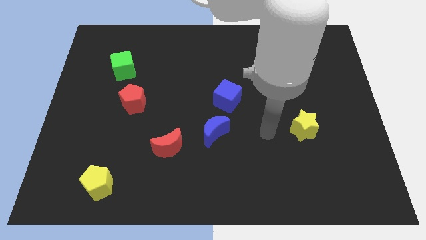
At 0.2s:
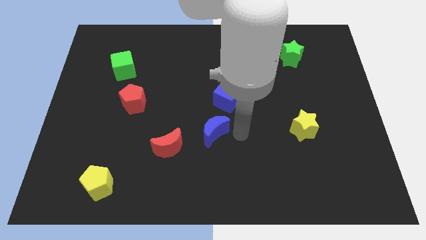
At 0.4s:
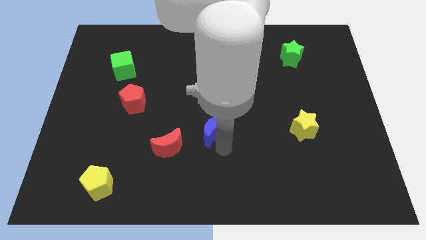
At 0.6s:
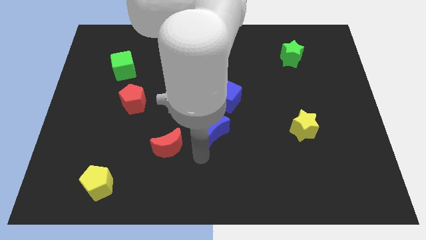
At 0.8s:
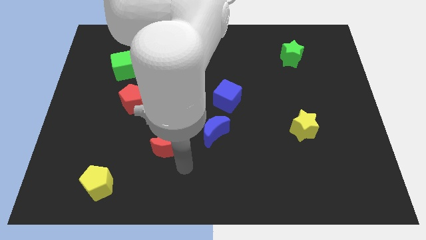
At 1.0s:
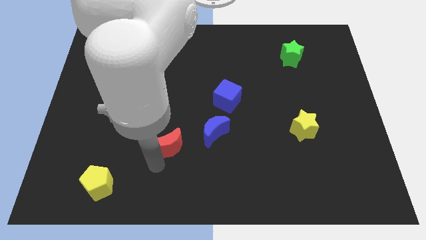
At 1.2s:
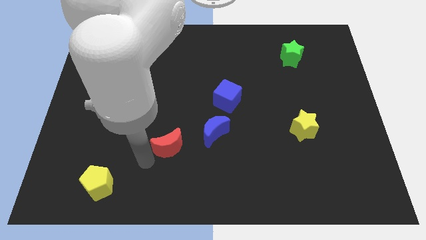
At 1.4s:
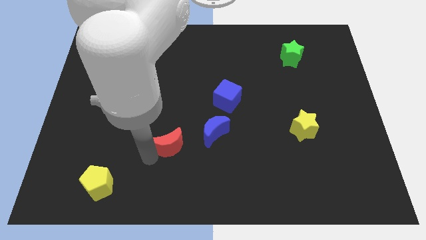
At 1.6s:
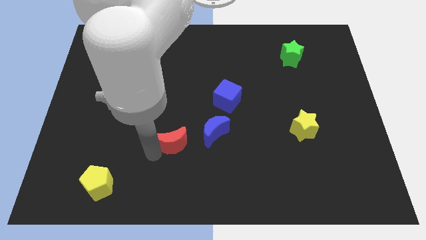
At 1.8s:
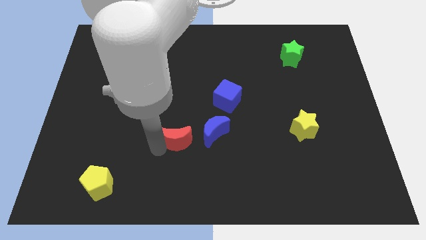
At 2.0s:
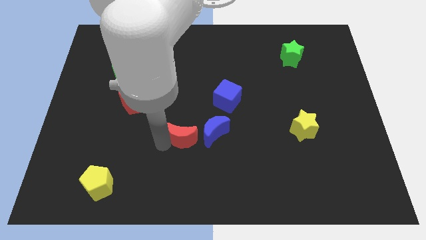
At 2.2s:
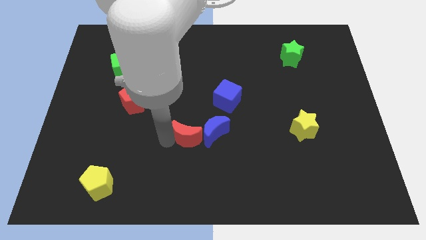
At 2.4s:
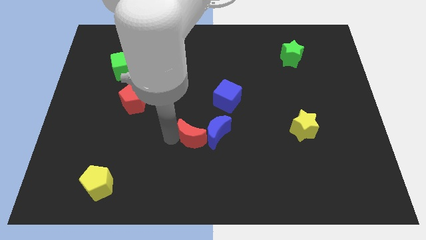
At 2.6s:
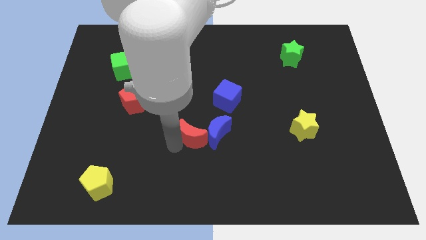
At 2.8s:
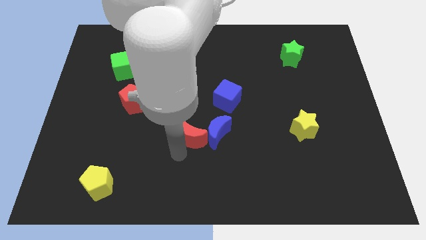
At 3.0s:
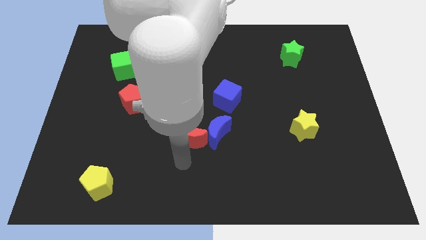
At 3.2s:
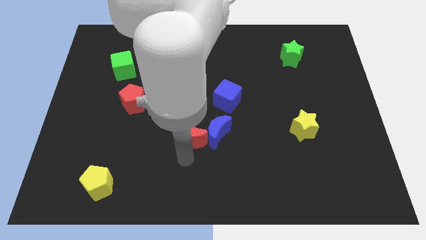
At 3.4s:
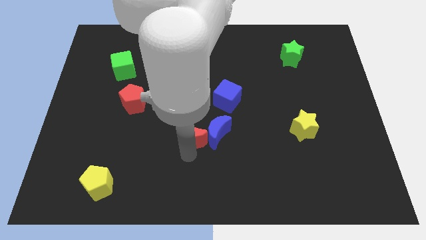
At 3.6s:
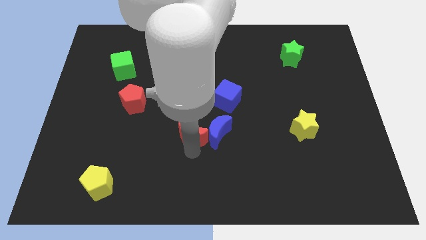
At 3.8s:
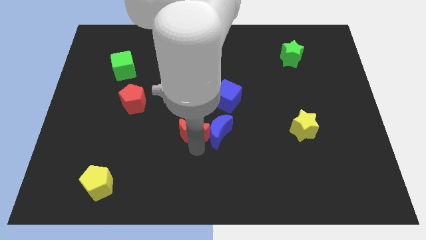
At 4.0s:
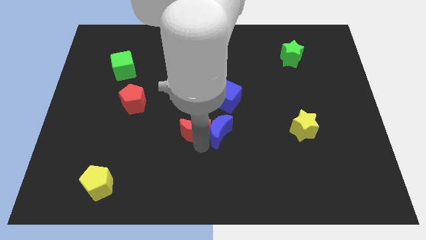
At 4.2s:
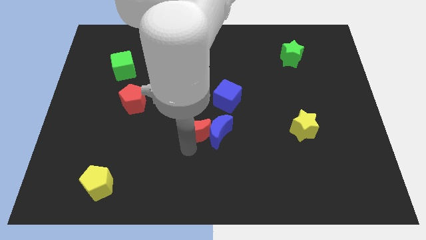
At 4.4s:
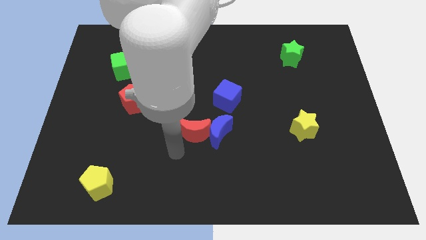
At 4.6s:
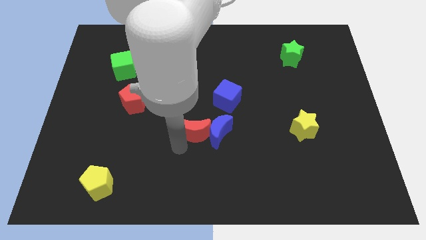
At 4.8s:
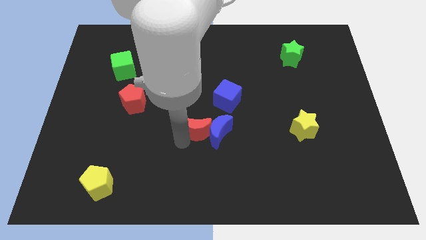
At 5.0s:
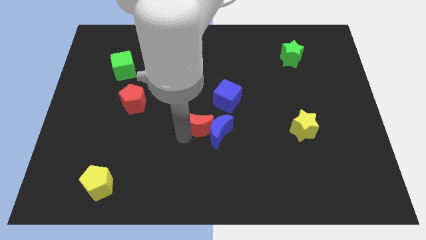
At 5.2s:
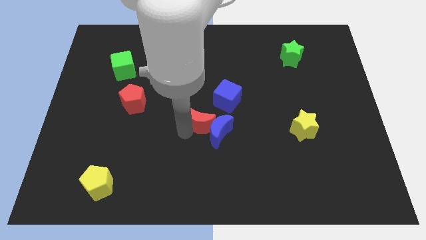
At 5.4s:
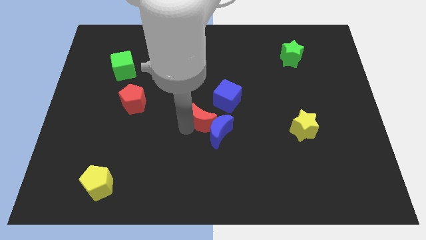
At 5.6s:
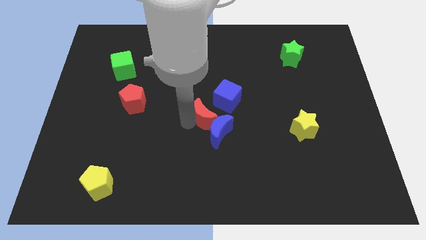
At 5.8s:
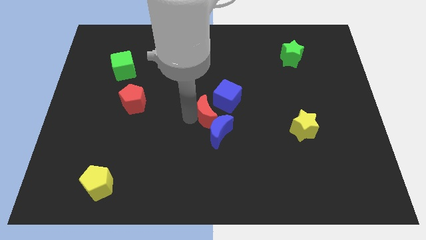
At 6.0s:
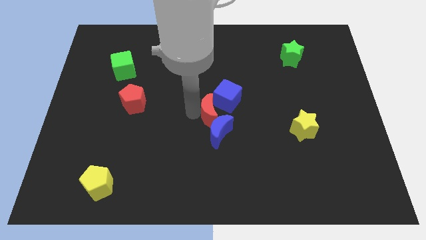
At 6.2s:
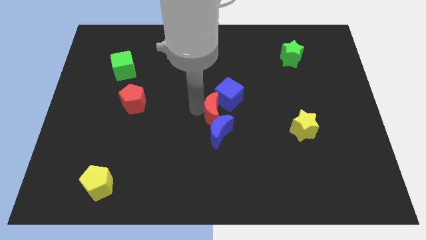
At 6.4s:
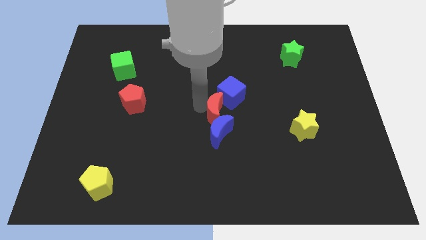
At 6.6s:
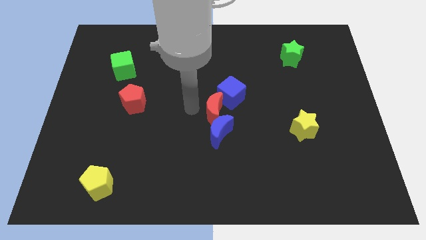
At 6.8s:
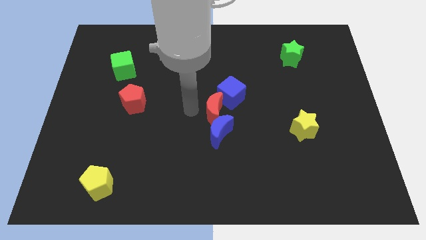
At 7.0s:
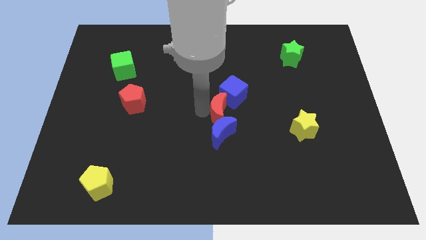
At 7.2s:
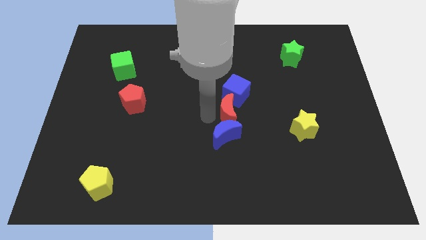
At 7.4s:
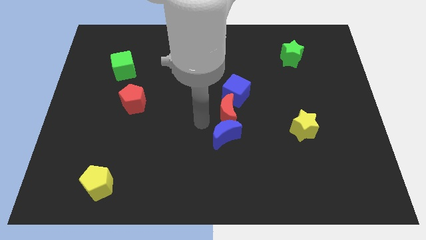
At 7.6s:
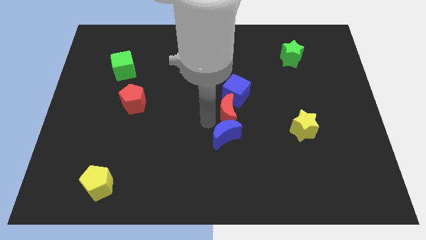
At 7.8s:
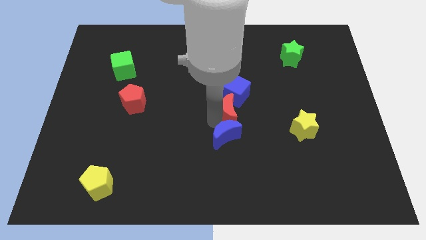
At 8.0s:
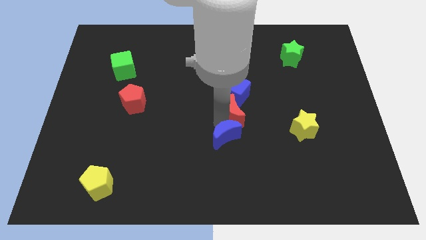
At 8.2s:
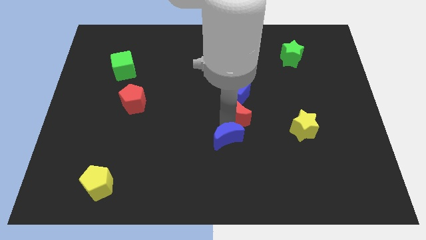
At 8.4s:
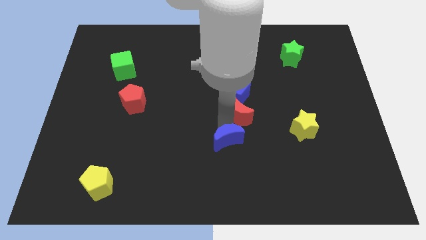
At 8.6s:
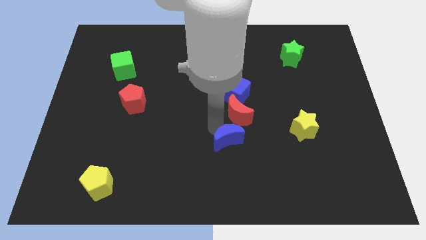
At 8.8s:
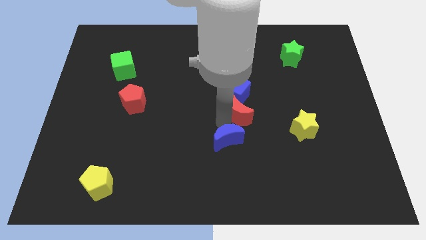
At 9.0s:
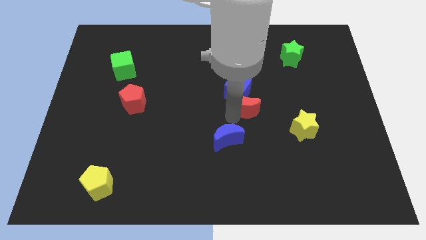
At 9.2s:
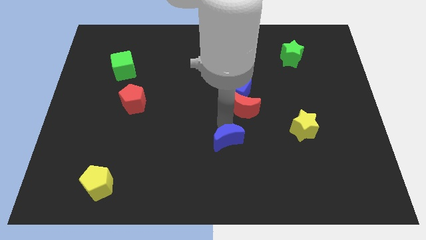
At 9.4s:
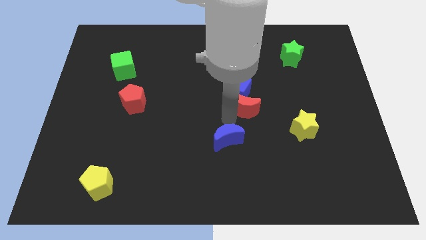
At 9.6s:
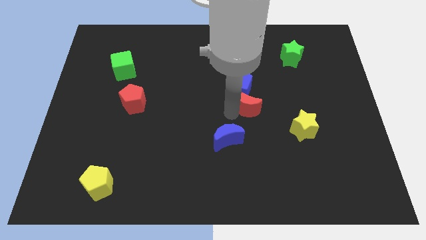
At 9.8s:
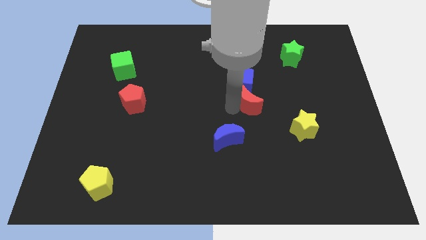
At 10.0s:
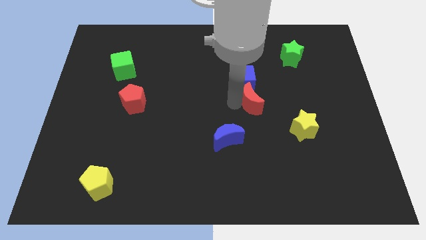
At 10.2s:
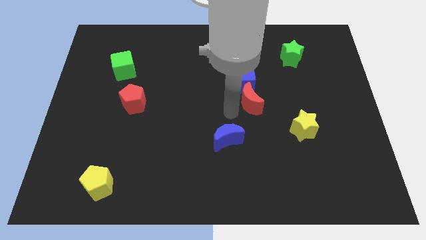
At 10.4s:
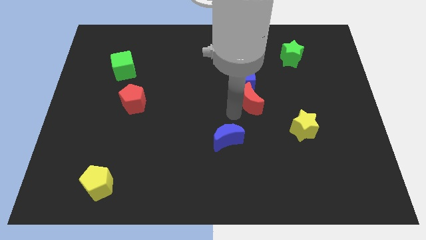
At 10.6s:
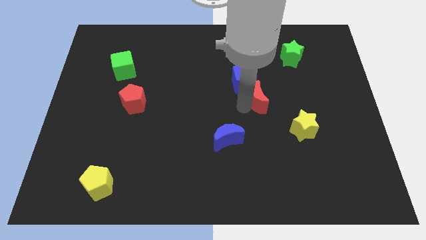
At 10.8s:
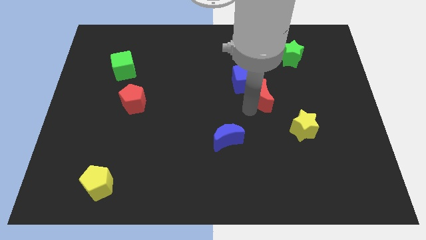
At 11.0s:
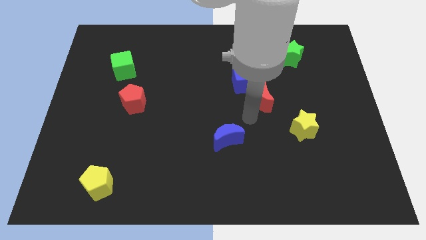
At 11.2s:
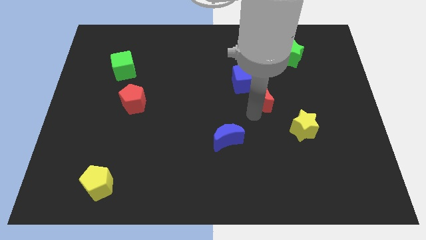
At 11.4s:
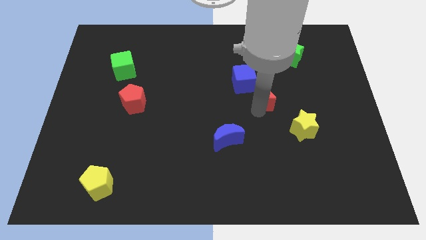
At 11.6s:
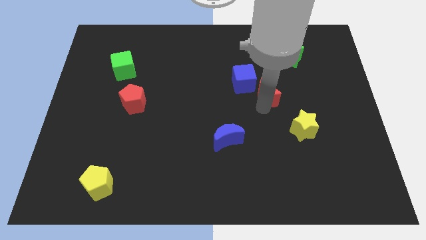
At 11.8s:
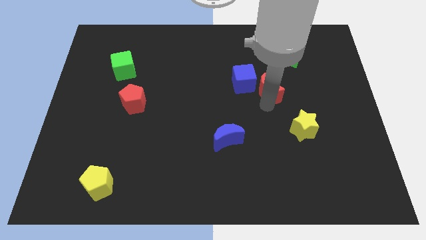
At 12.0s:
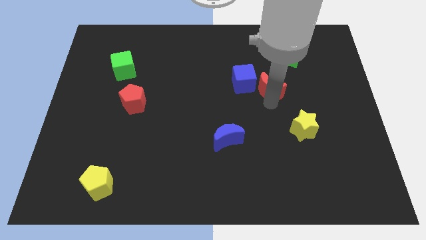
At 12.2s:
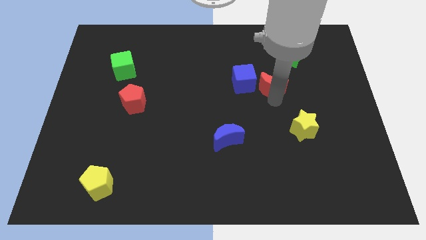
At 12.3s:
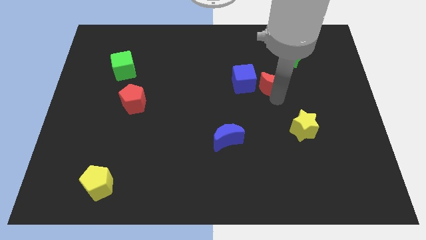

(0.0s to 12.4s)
put the red moon to the bottom left side of the green star

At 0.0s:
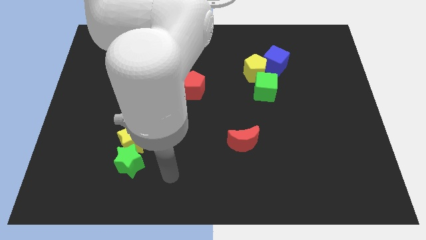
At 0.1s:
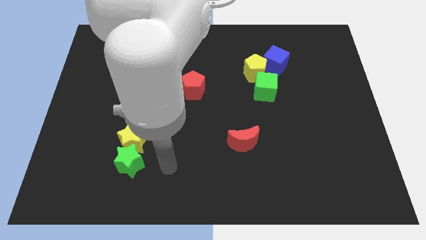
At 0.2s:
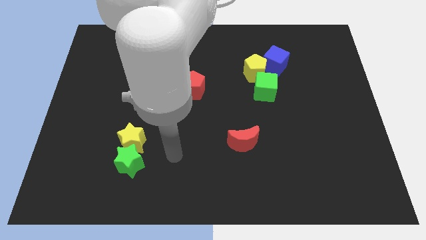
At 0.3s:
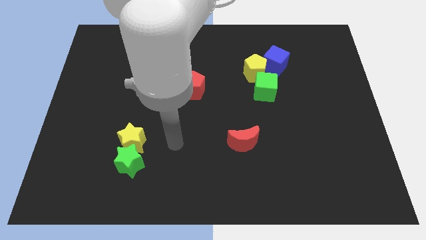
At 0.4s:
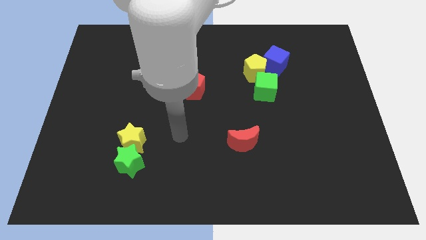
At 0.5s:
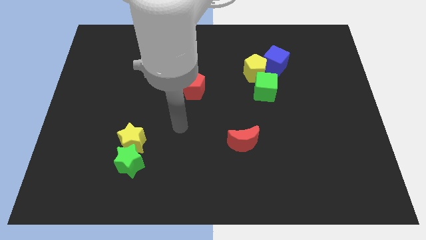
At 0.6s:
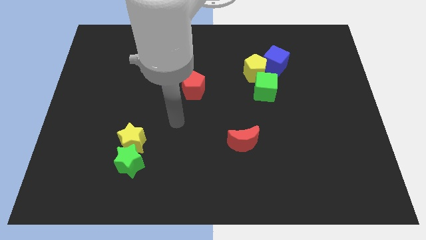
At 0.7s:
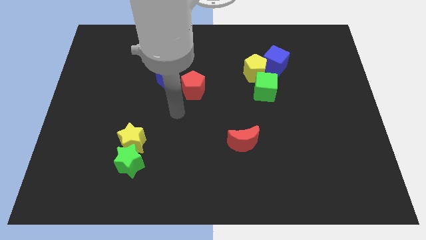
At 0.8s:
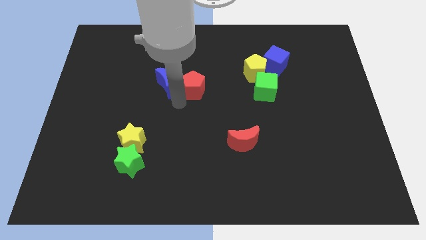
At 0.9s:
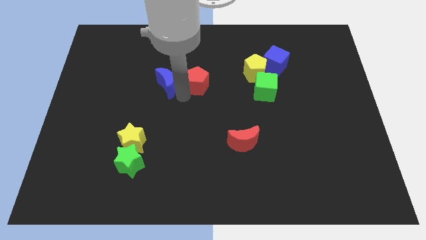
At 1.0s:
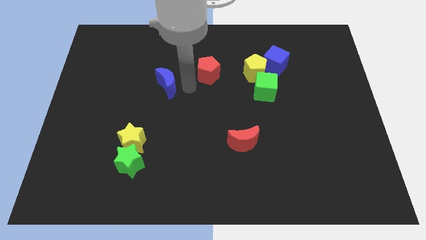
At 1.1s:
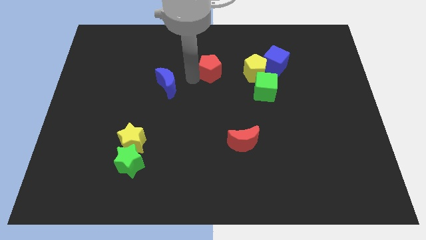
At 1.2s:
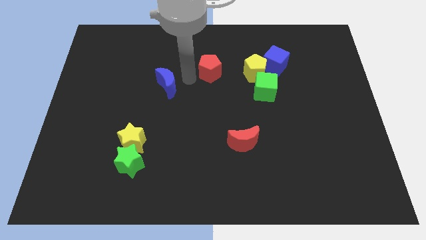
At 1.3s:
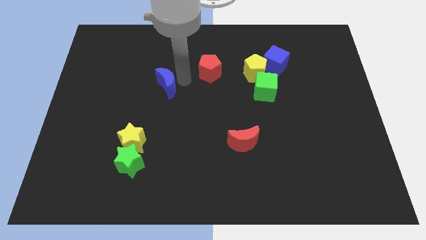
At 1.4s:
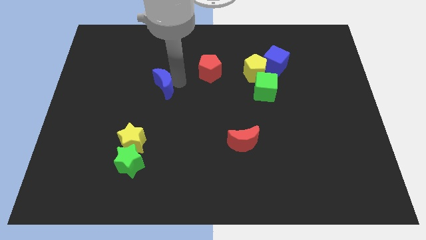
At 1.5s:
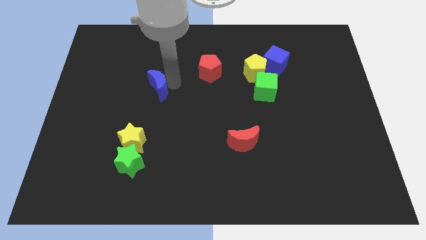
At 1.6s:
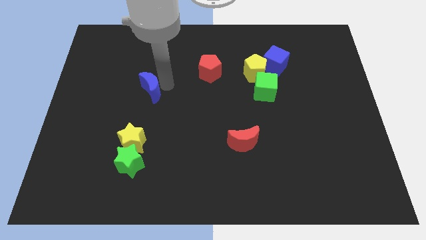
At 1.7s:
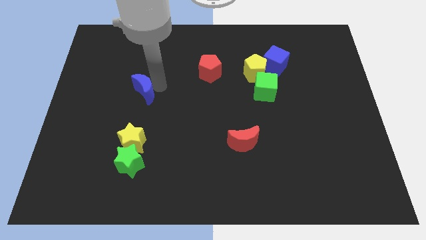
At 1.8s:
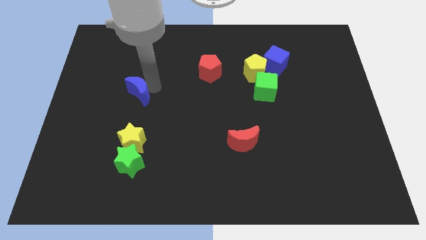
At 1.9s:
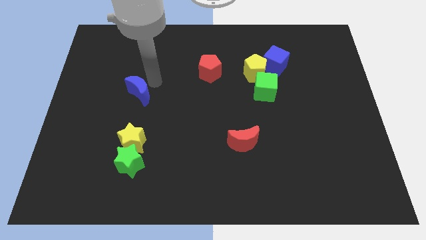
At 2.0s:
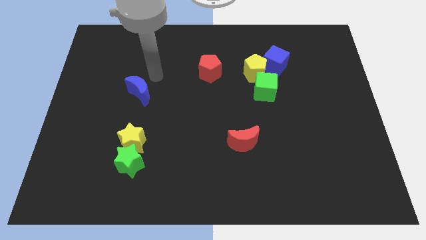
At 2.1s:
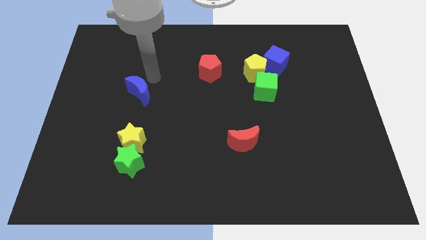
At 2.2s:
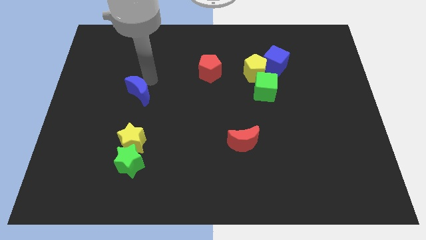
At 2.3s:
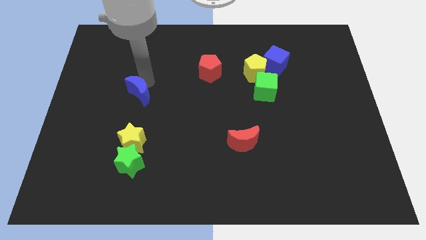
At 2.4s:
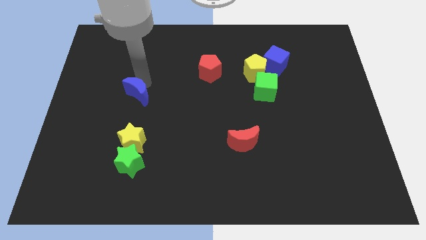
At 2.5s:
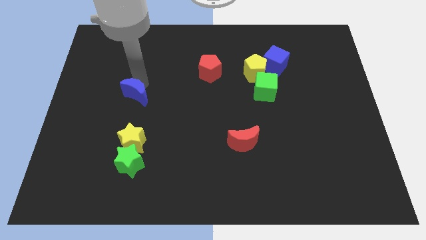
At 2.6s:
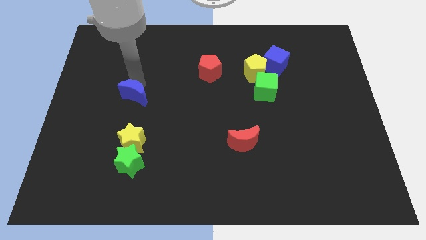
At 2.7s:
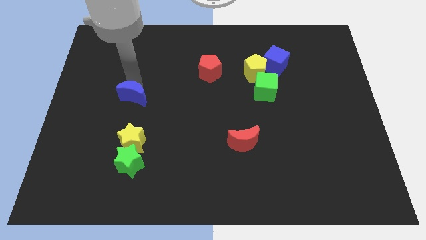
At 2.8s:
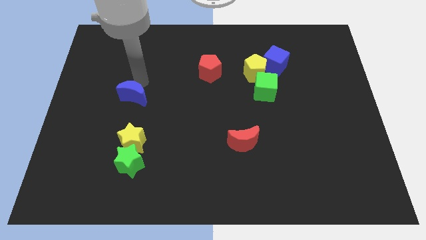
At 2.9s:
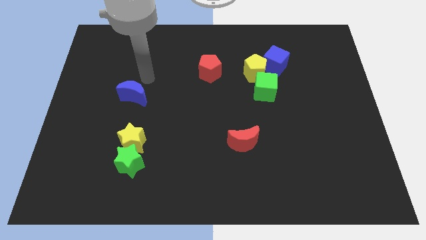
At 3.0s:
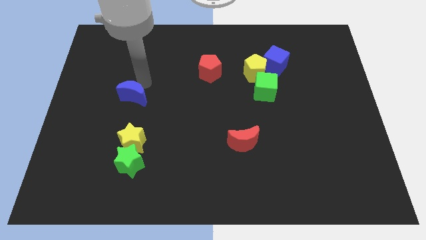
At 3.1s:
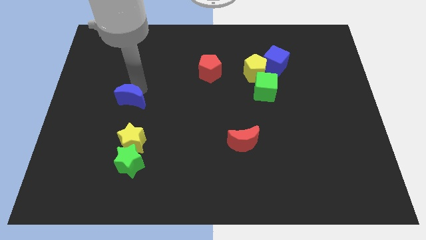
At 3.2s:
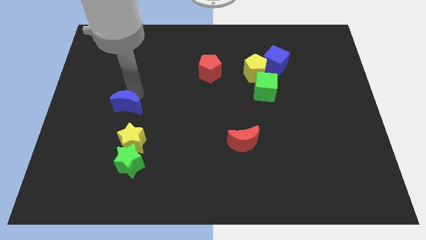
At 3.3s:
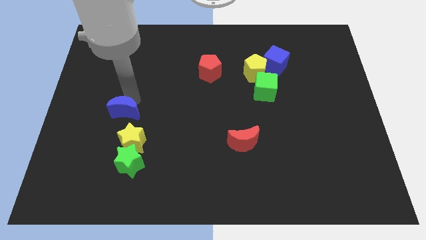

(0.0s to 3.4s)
push the blue moon diagonally up and to the left of the yellow star
